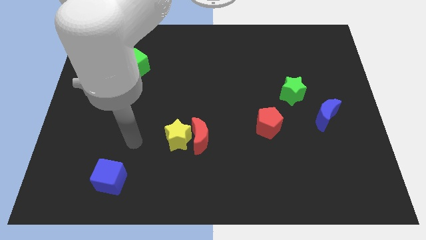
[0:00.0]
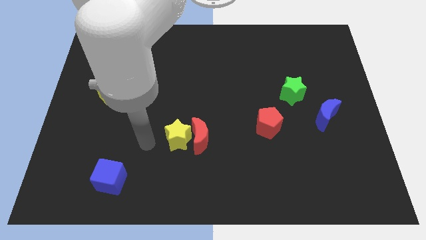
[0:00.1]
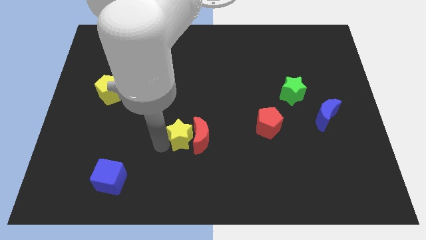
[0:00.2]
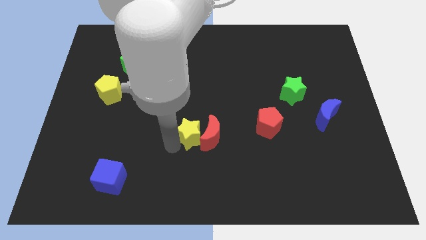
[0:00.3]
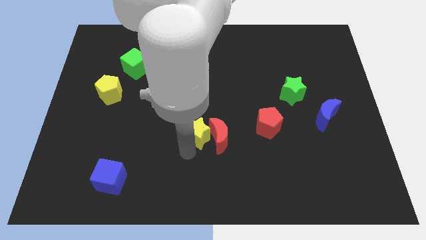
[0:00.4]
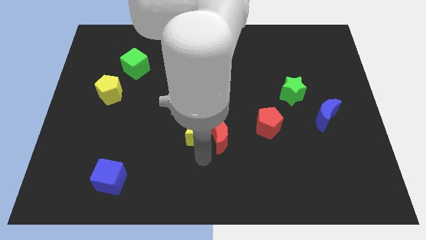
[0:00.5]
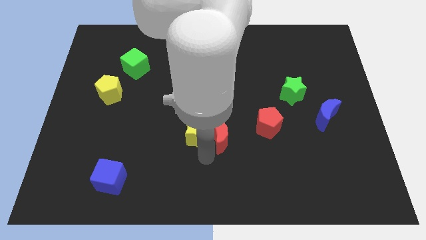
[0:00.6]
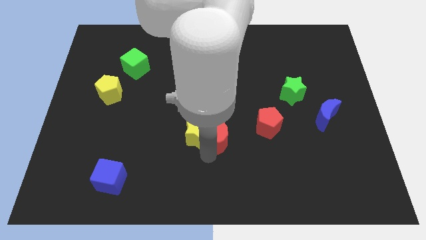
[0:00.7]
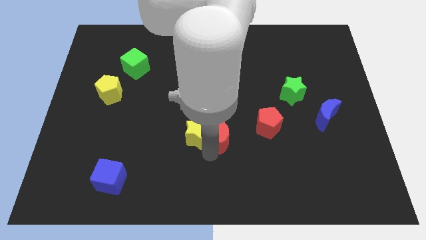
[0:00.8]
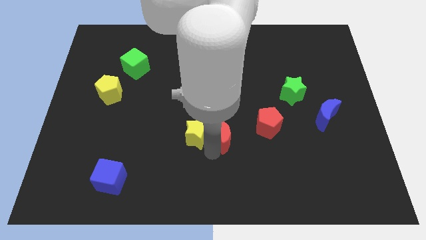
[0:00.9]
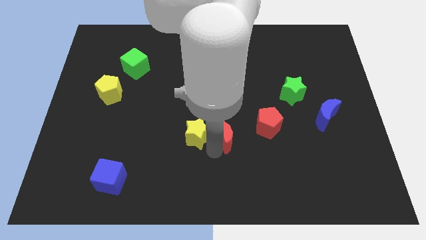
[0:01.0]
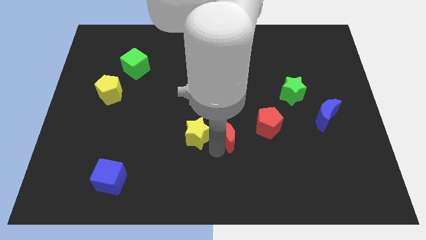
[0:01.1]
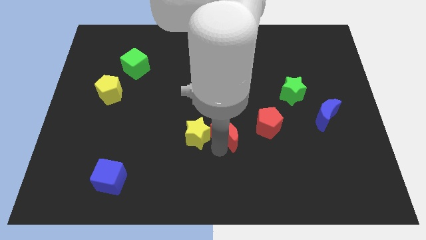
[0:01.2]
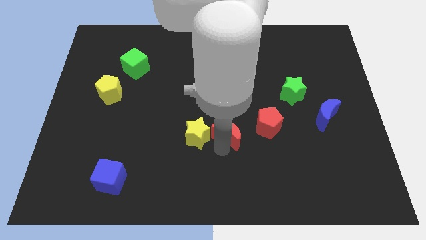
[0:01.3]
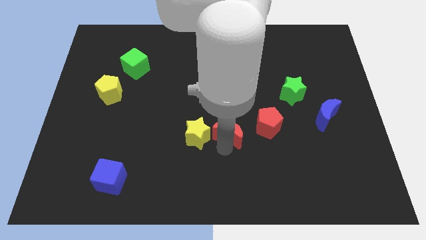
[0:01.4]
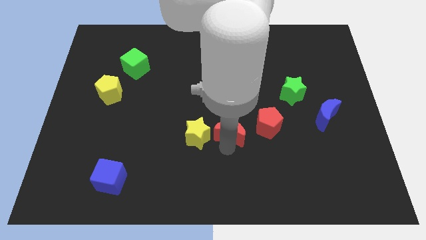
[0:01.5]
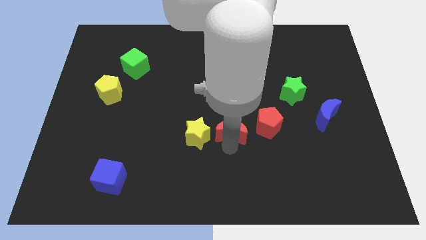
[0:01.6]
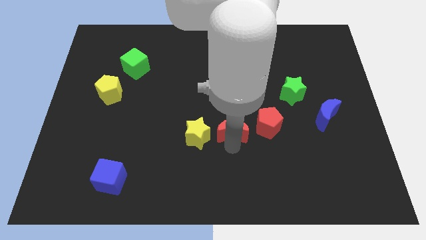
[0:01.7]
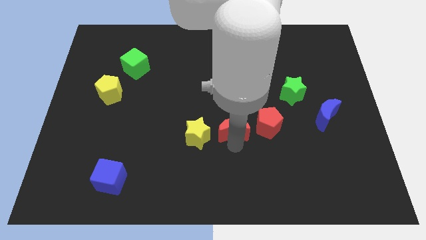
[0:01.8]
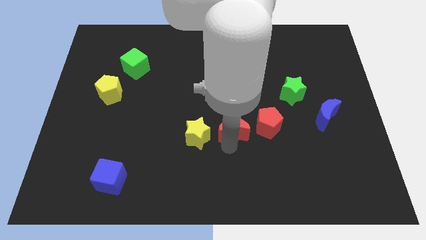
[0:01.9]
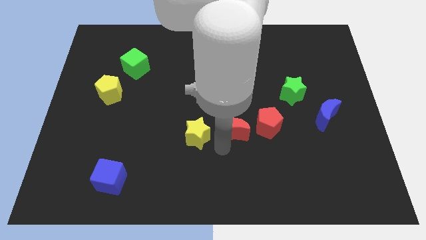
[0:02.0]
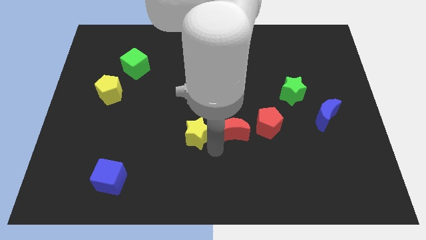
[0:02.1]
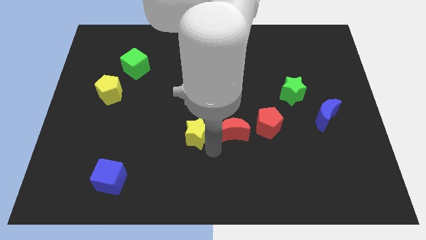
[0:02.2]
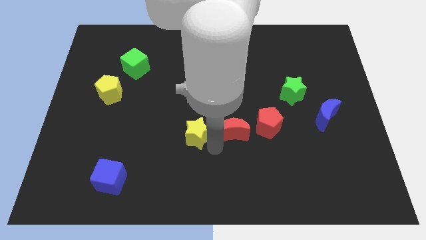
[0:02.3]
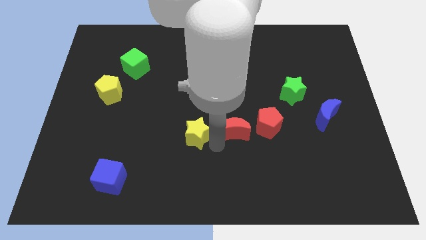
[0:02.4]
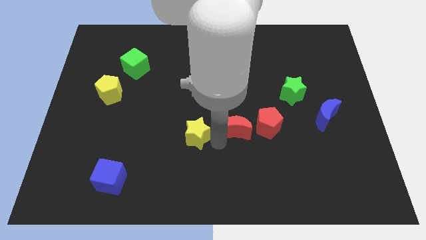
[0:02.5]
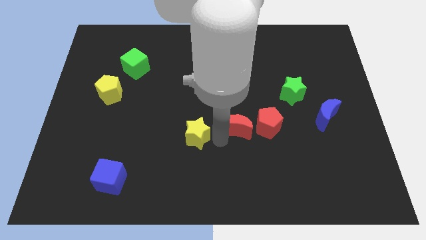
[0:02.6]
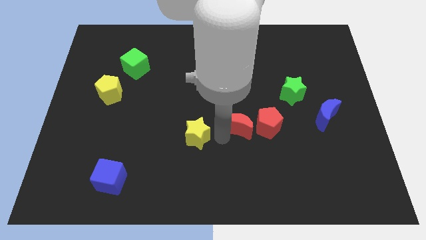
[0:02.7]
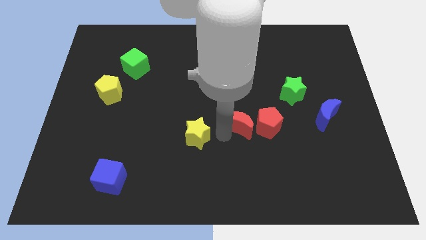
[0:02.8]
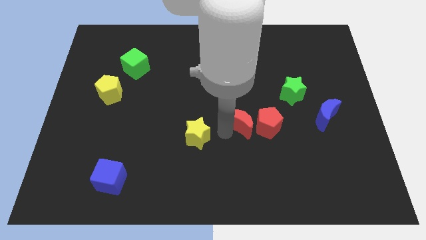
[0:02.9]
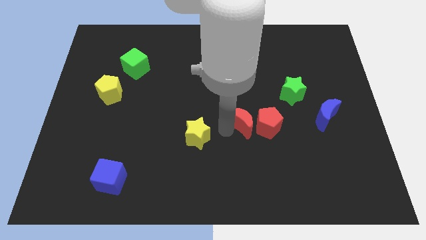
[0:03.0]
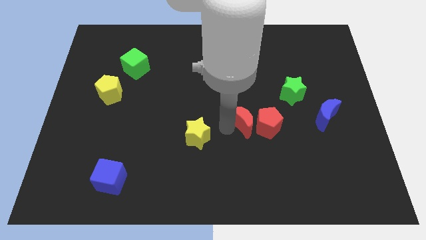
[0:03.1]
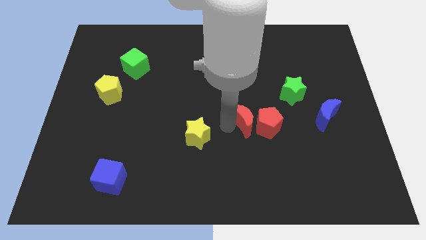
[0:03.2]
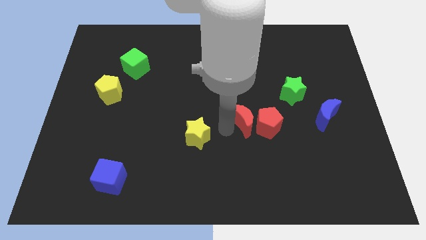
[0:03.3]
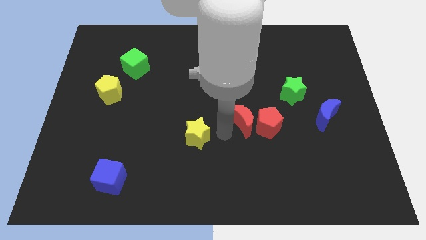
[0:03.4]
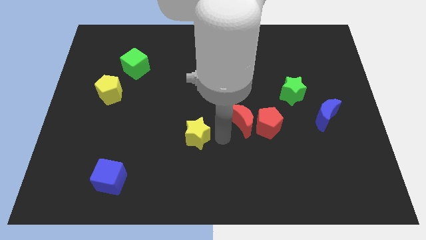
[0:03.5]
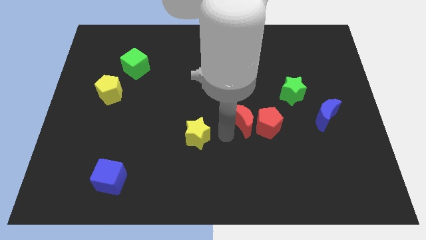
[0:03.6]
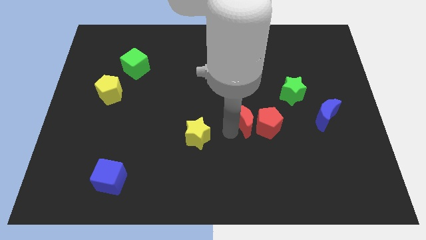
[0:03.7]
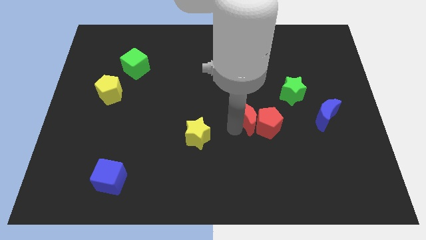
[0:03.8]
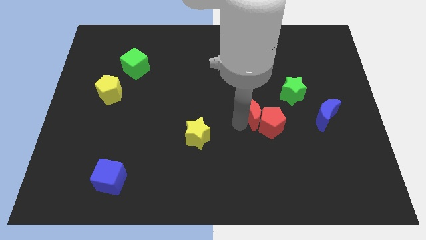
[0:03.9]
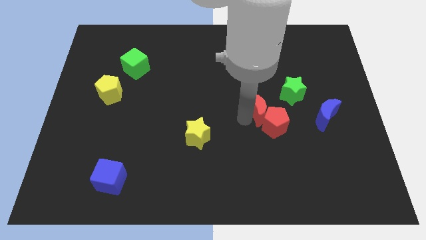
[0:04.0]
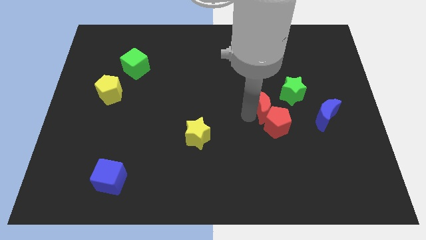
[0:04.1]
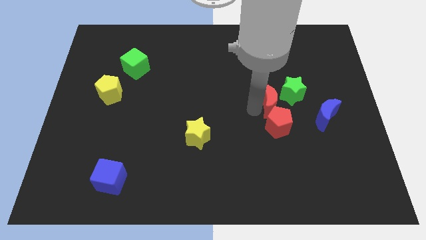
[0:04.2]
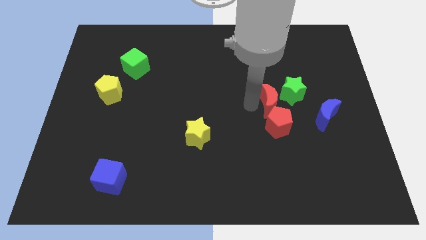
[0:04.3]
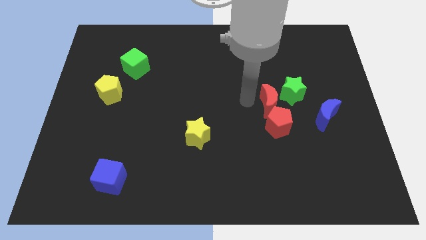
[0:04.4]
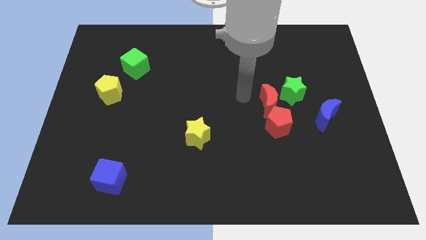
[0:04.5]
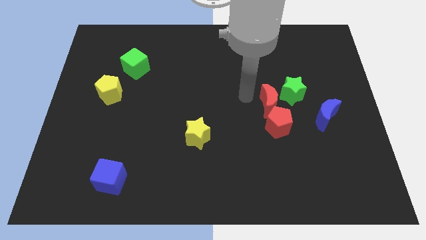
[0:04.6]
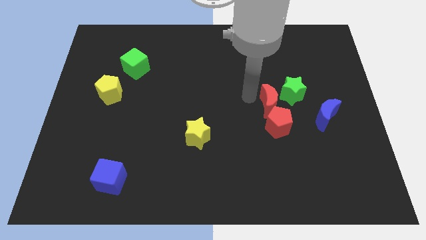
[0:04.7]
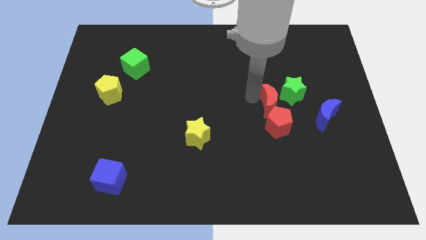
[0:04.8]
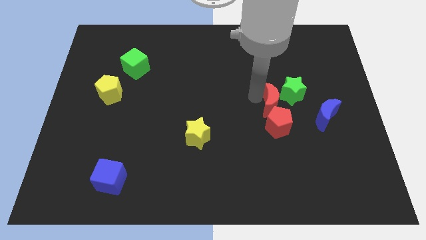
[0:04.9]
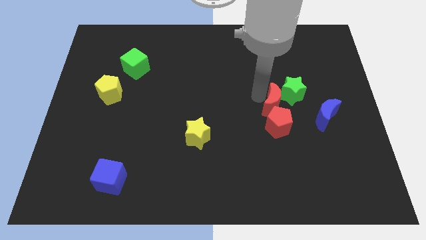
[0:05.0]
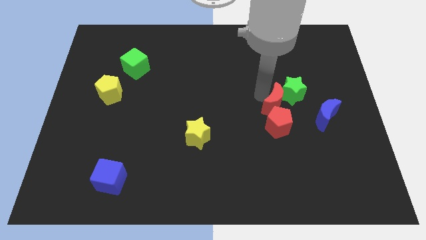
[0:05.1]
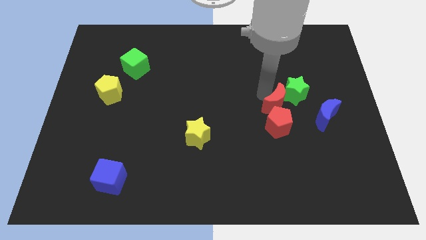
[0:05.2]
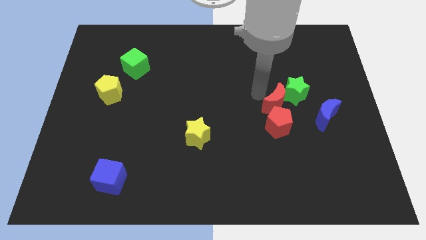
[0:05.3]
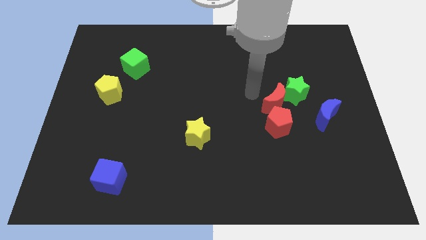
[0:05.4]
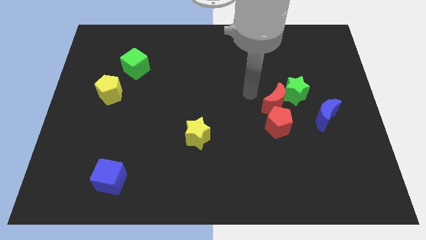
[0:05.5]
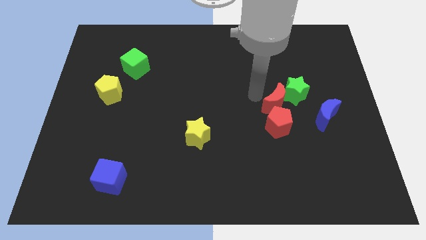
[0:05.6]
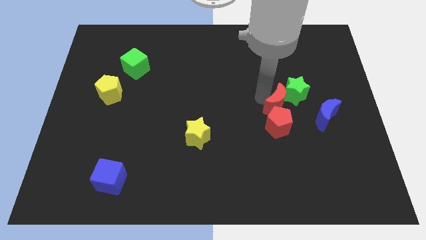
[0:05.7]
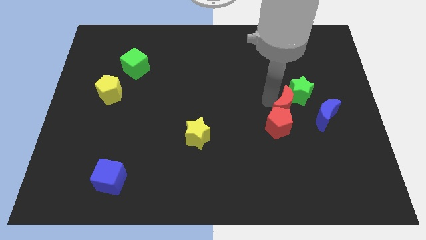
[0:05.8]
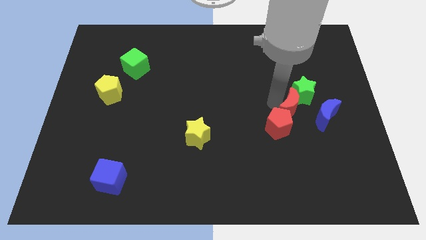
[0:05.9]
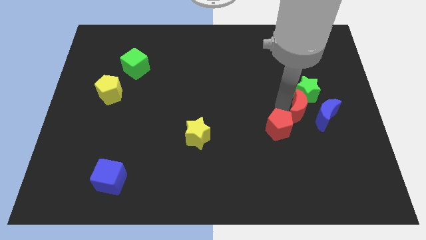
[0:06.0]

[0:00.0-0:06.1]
move the red moon close to the blue moon

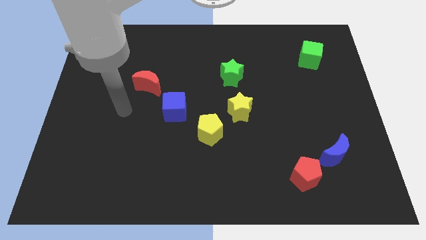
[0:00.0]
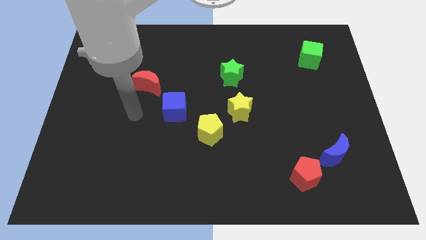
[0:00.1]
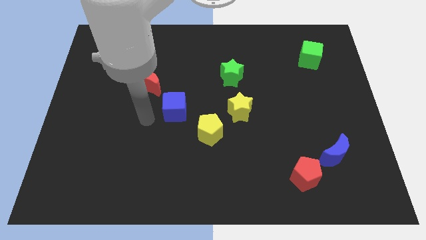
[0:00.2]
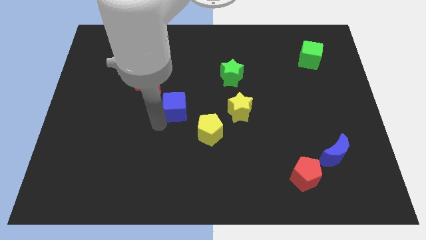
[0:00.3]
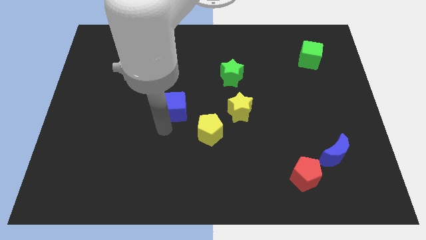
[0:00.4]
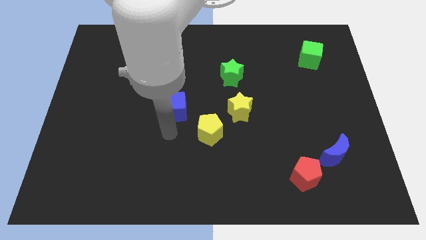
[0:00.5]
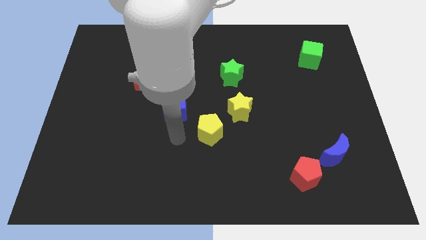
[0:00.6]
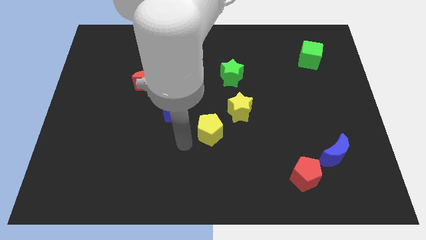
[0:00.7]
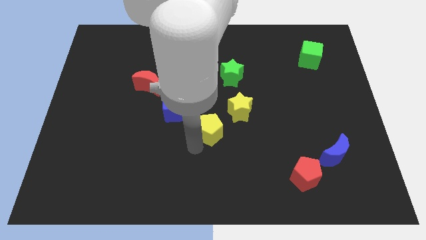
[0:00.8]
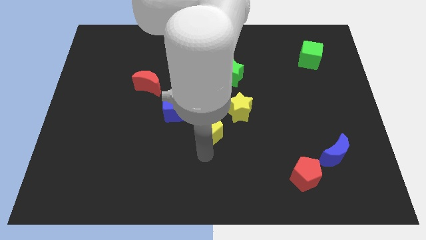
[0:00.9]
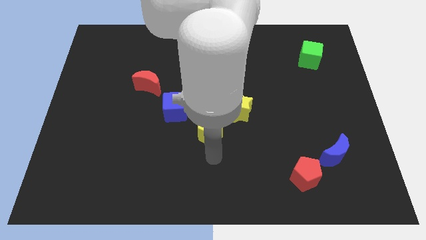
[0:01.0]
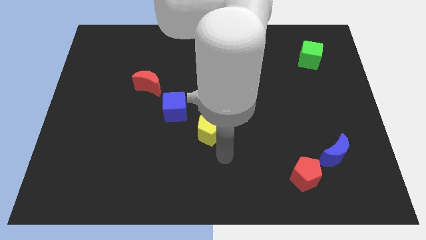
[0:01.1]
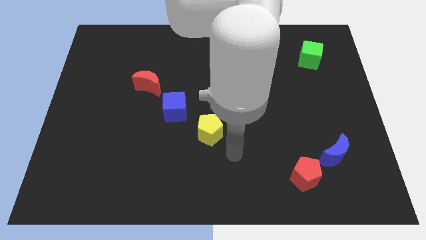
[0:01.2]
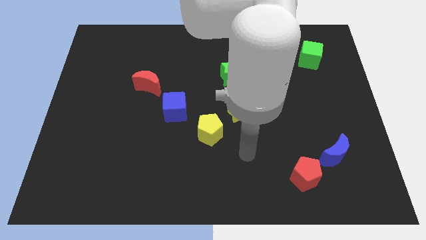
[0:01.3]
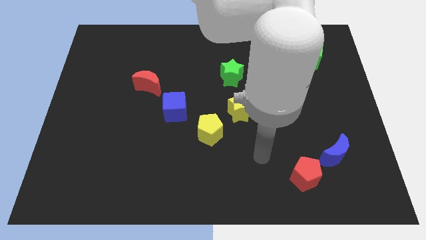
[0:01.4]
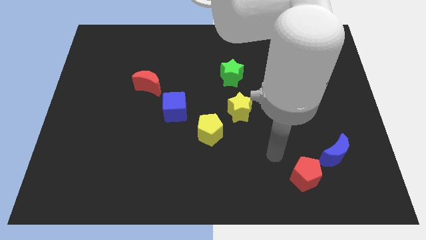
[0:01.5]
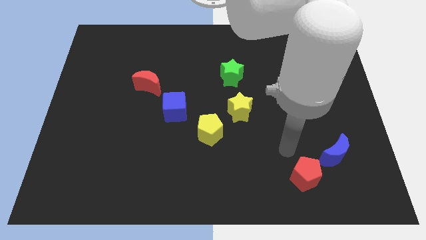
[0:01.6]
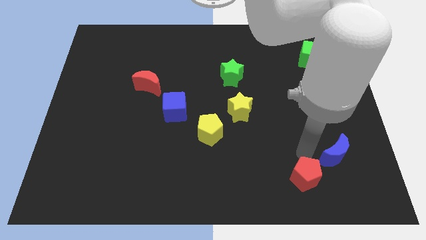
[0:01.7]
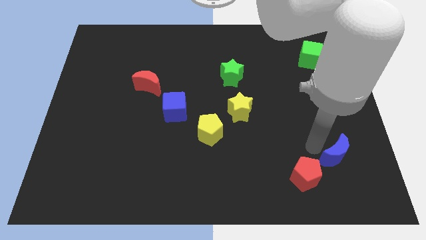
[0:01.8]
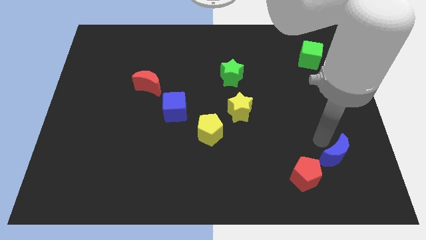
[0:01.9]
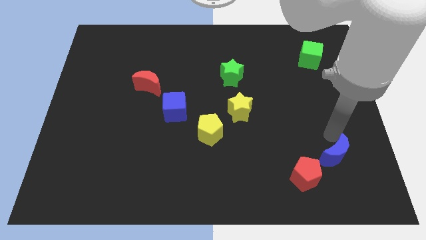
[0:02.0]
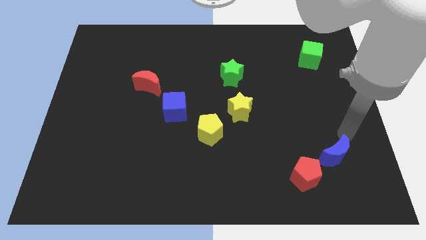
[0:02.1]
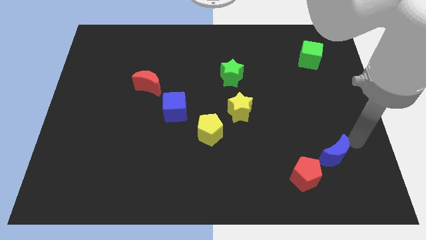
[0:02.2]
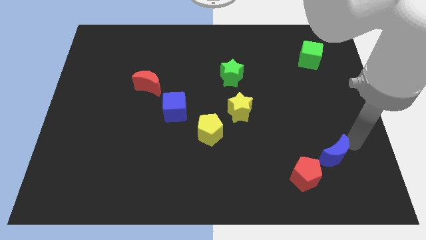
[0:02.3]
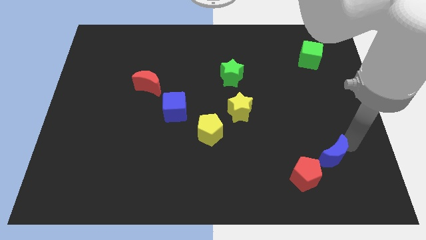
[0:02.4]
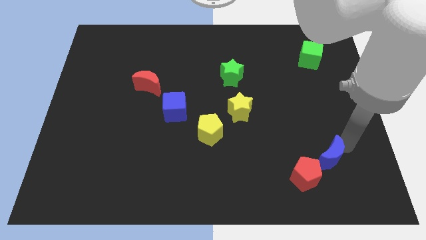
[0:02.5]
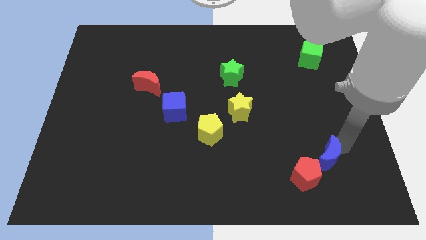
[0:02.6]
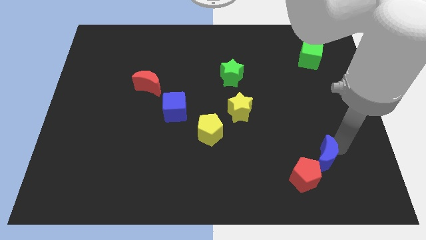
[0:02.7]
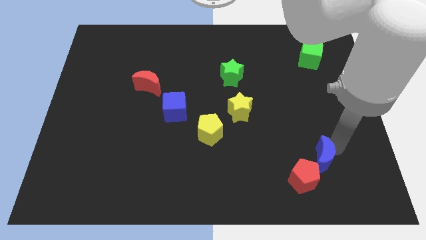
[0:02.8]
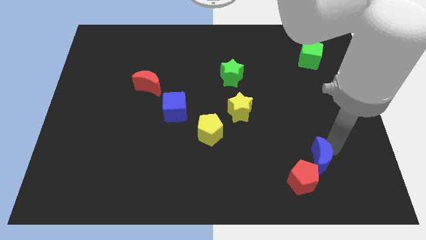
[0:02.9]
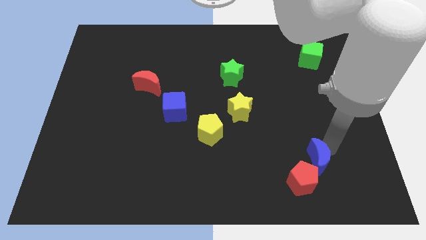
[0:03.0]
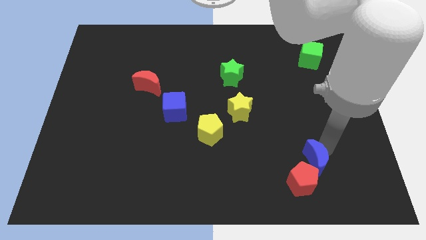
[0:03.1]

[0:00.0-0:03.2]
push the blue moon next to the red pentagon
